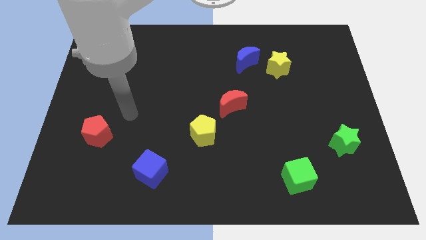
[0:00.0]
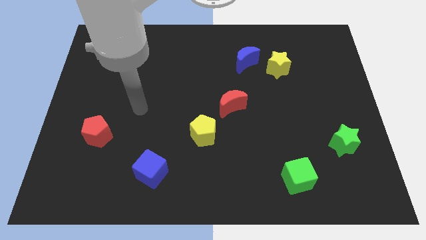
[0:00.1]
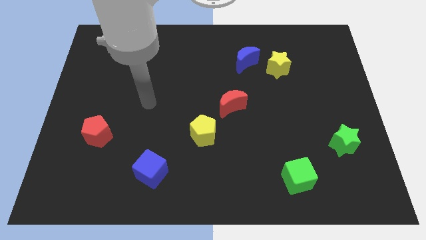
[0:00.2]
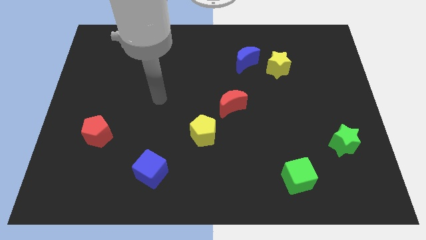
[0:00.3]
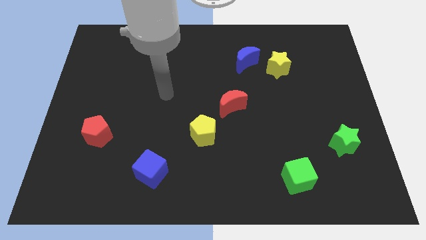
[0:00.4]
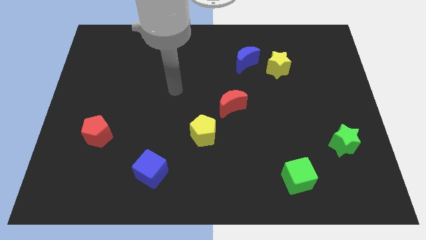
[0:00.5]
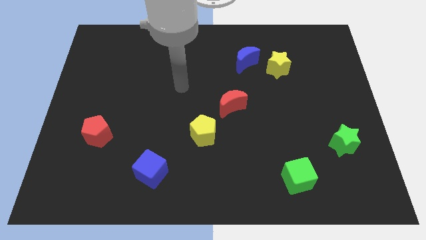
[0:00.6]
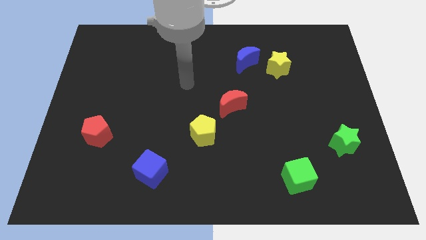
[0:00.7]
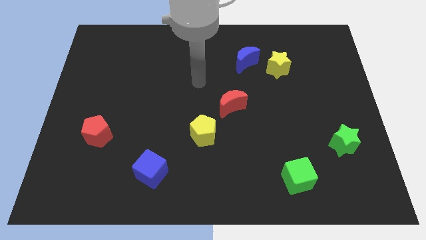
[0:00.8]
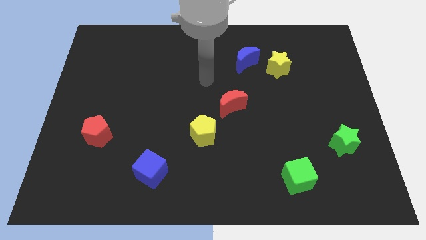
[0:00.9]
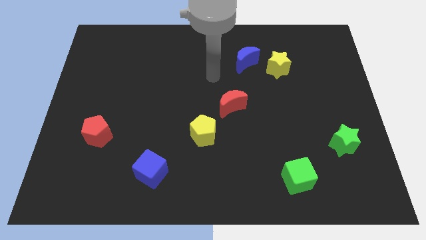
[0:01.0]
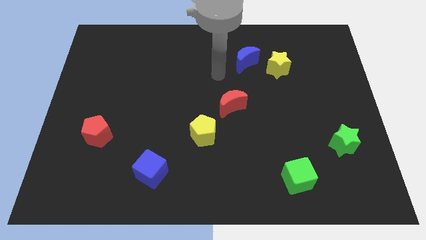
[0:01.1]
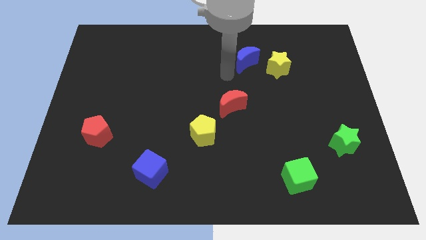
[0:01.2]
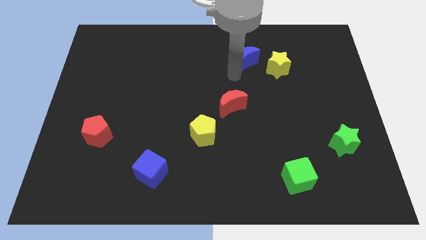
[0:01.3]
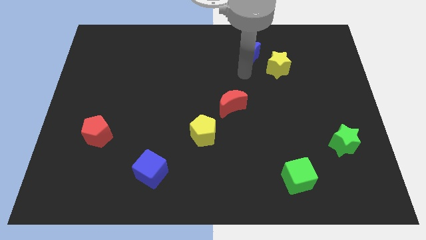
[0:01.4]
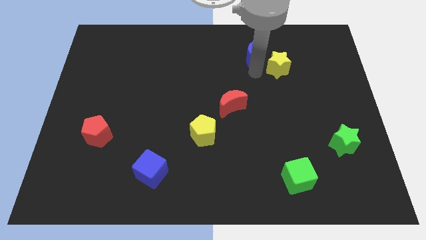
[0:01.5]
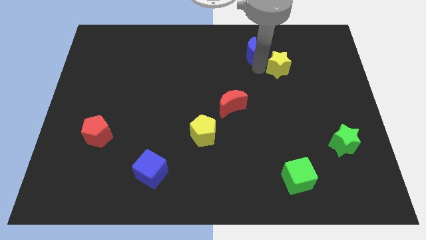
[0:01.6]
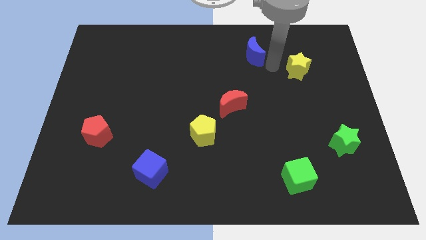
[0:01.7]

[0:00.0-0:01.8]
pull the blue moon apart from the yellow star

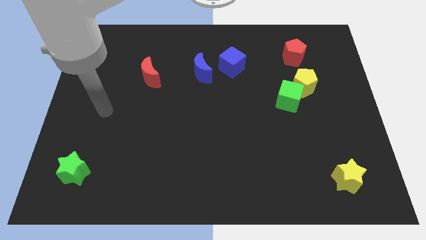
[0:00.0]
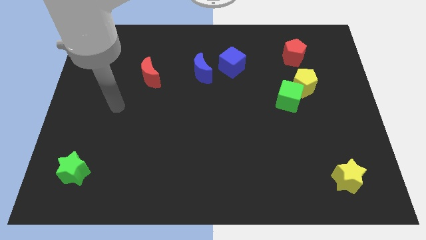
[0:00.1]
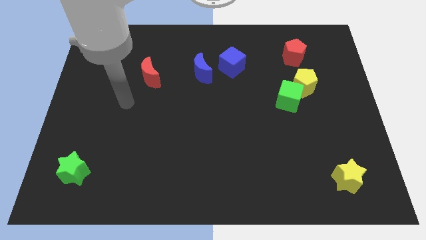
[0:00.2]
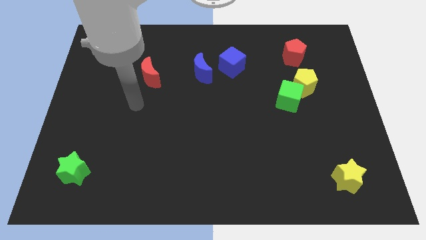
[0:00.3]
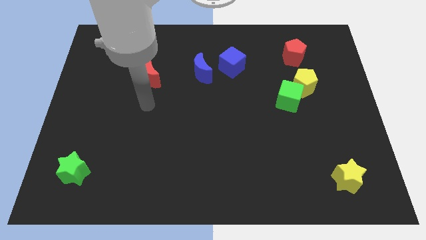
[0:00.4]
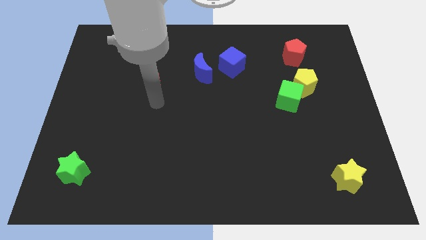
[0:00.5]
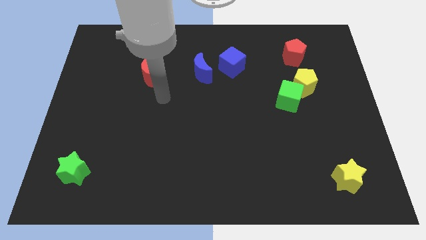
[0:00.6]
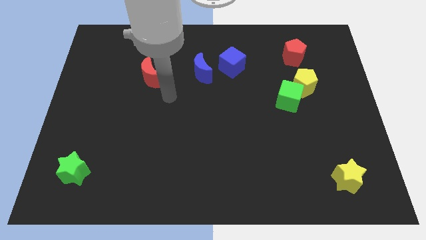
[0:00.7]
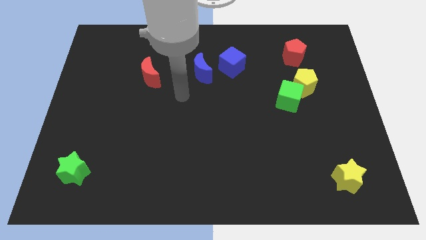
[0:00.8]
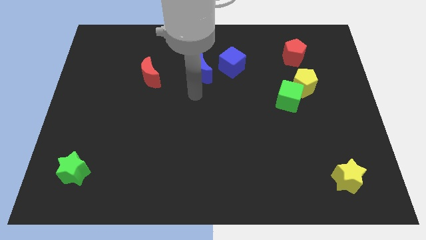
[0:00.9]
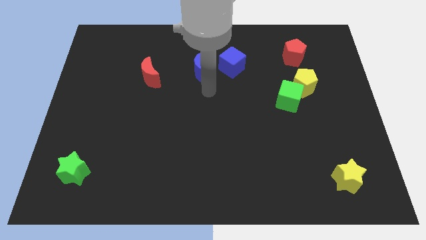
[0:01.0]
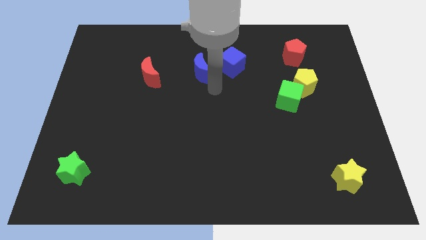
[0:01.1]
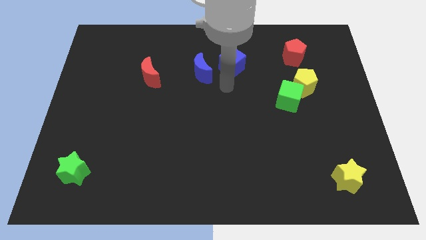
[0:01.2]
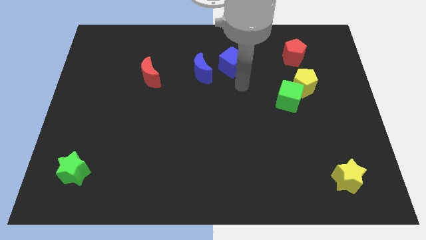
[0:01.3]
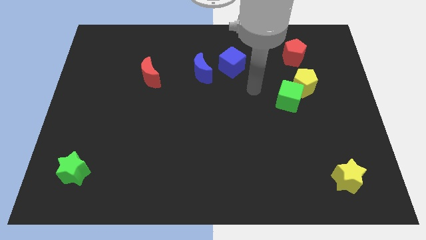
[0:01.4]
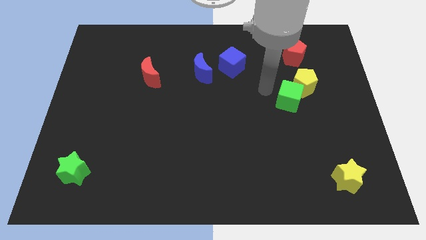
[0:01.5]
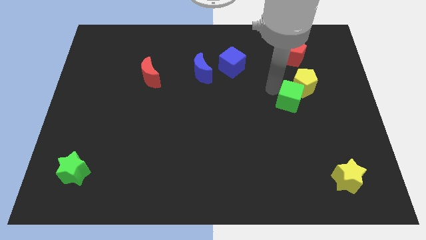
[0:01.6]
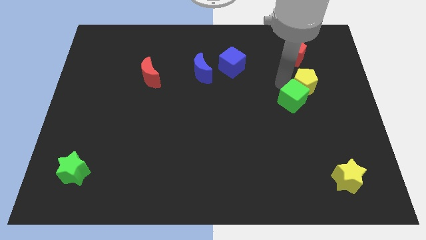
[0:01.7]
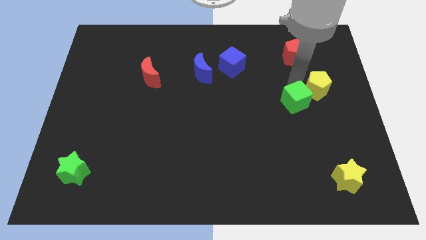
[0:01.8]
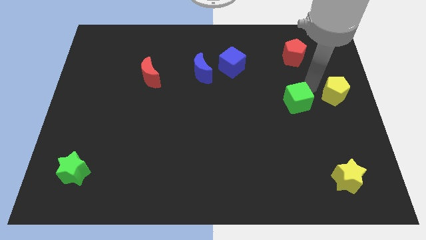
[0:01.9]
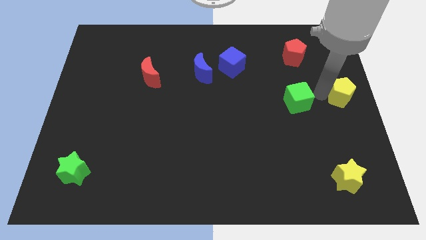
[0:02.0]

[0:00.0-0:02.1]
pull the green cube apart from the yellow pentagon

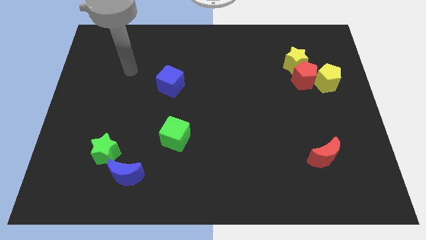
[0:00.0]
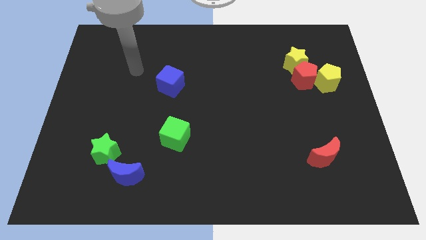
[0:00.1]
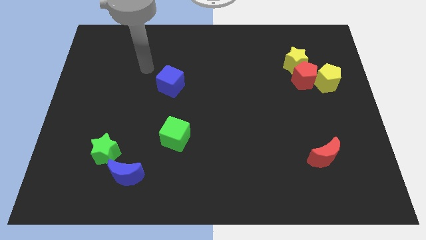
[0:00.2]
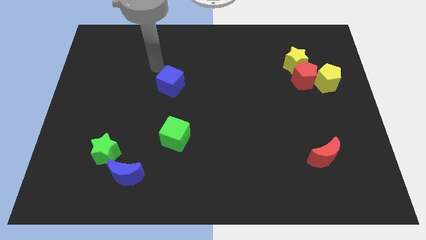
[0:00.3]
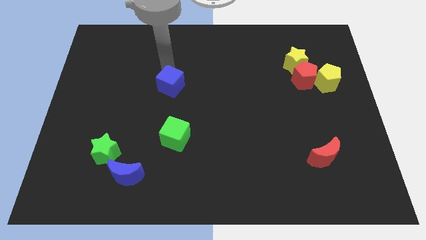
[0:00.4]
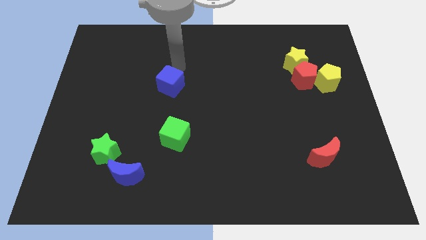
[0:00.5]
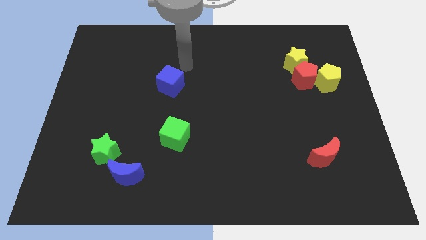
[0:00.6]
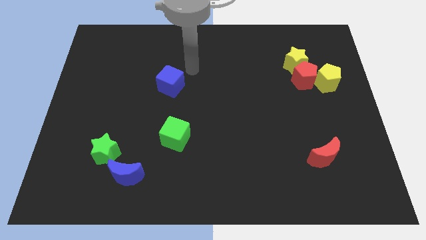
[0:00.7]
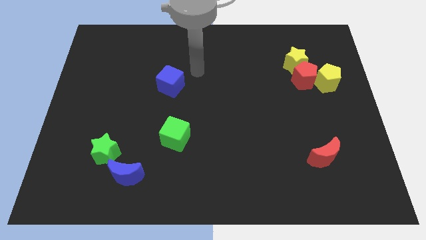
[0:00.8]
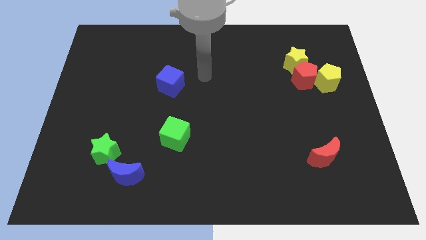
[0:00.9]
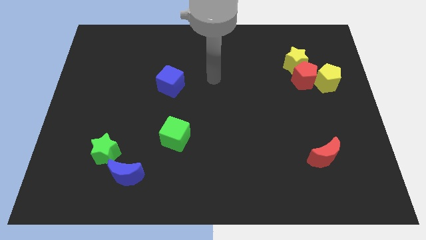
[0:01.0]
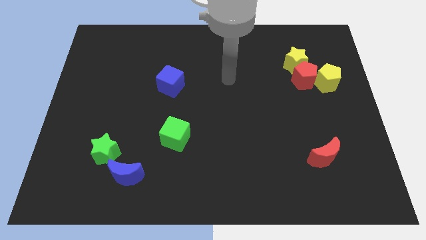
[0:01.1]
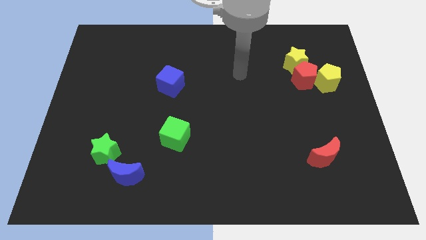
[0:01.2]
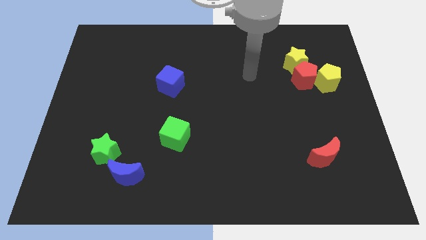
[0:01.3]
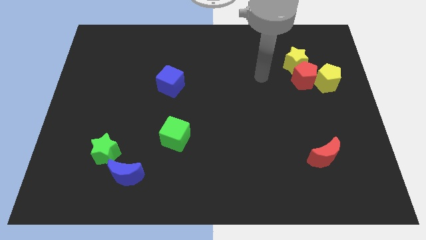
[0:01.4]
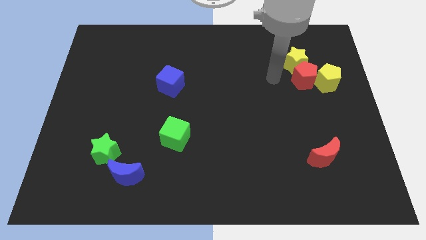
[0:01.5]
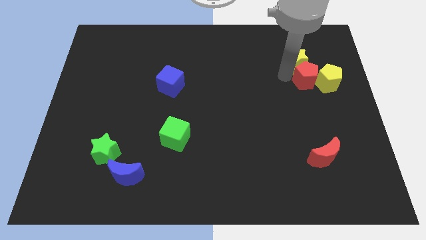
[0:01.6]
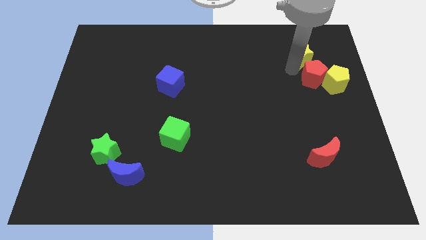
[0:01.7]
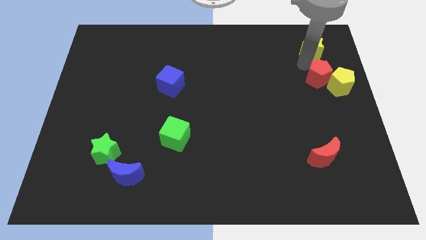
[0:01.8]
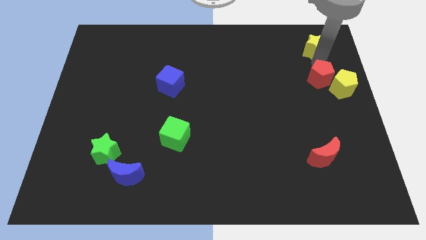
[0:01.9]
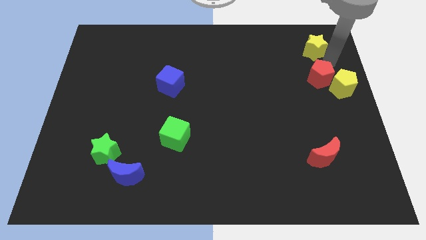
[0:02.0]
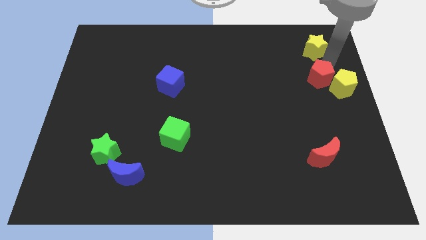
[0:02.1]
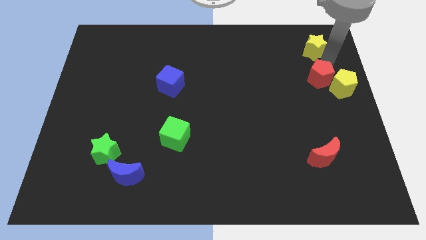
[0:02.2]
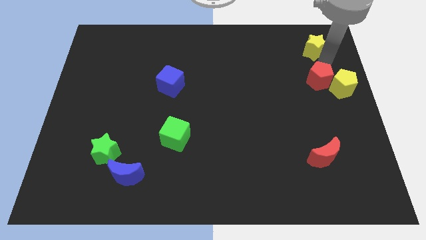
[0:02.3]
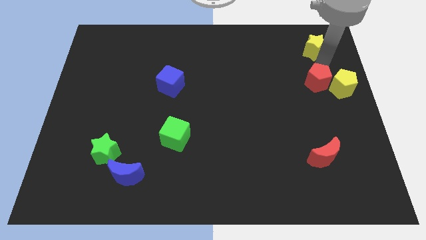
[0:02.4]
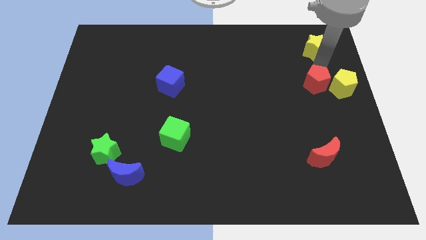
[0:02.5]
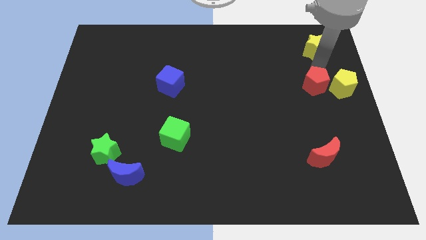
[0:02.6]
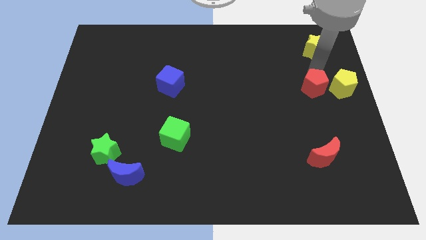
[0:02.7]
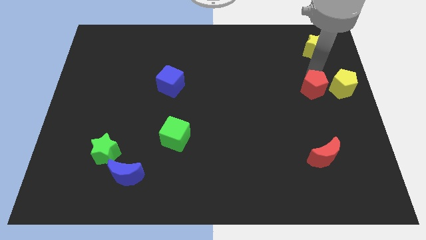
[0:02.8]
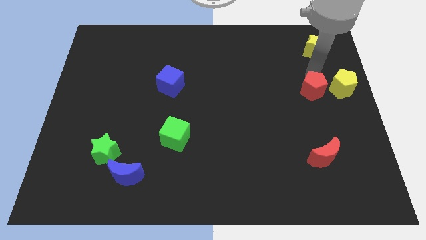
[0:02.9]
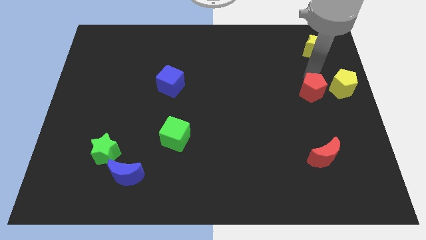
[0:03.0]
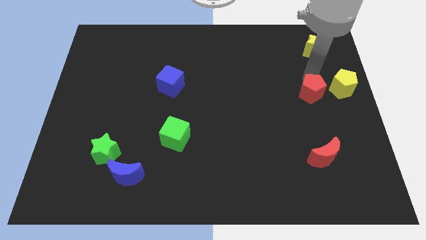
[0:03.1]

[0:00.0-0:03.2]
move the red pentagon away from the yellow pentagon and yellow star

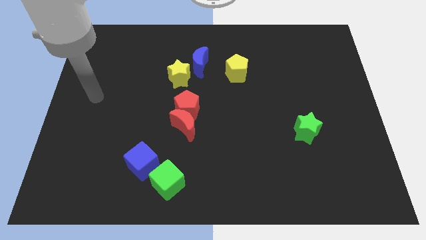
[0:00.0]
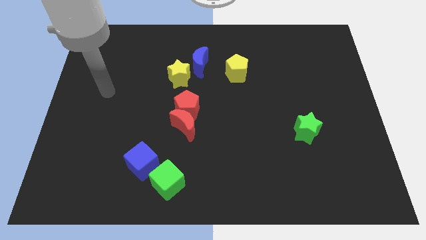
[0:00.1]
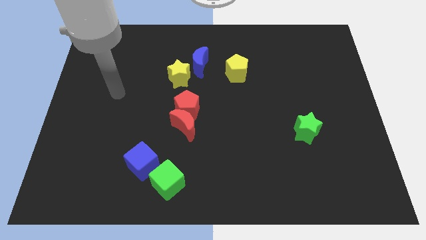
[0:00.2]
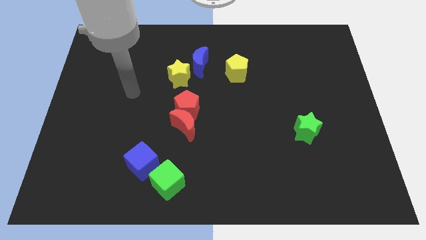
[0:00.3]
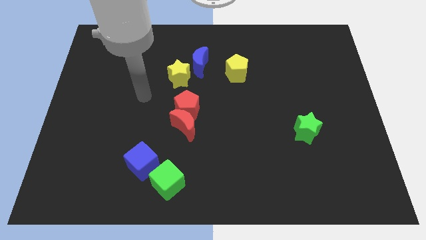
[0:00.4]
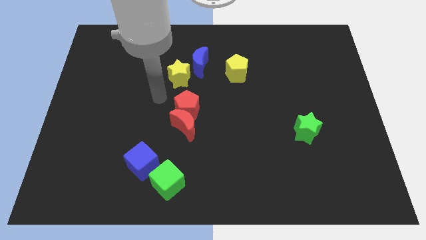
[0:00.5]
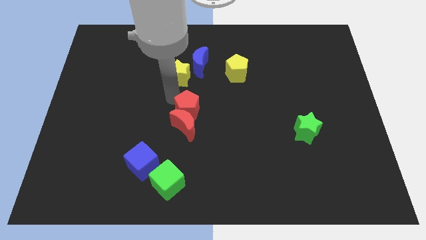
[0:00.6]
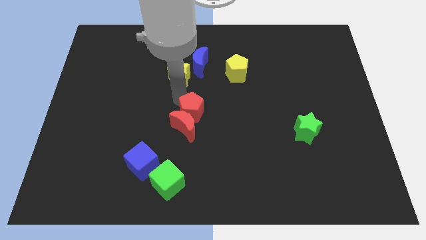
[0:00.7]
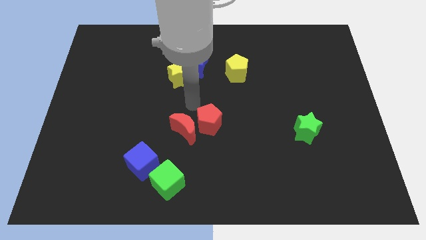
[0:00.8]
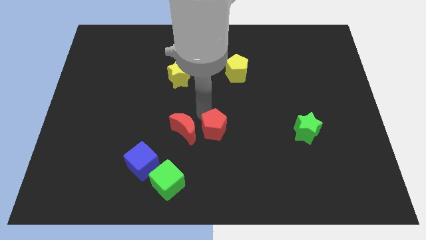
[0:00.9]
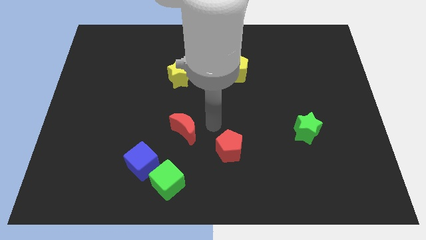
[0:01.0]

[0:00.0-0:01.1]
separate the red moon from the red pentagon

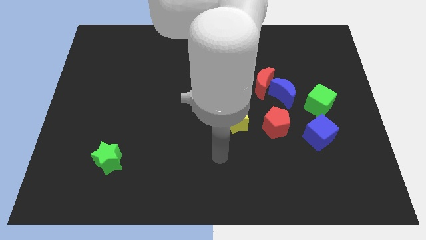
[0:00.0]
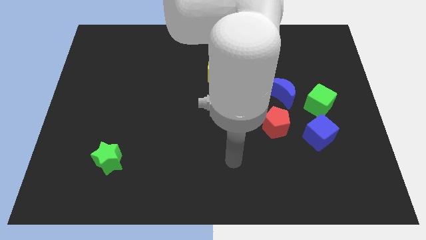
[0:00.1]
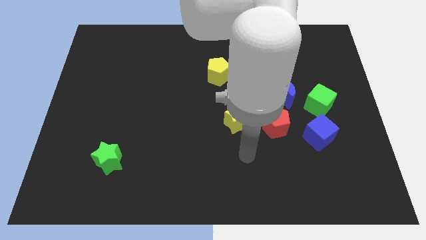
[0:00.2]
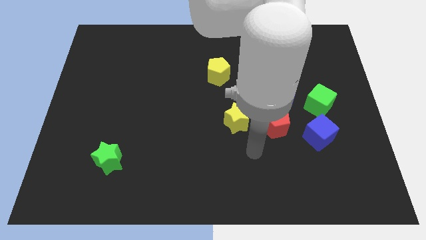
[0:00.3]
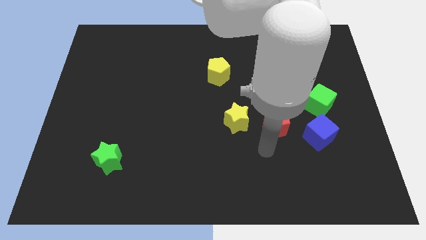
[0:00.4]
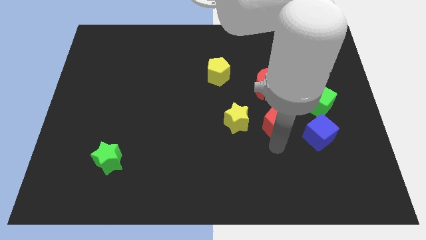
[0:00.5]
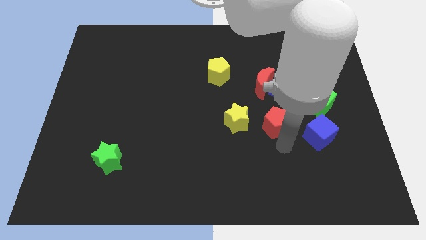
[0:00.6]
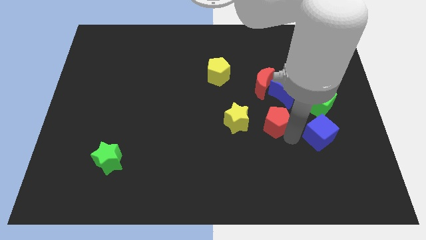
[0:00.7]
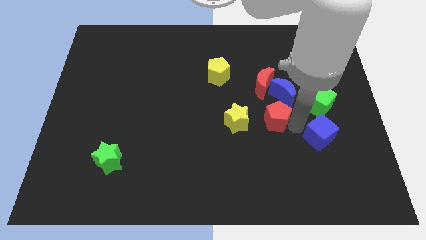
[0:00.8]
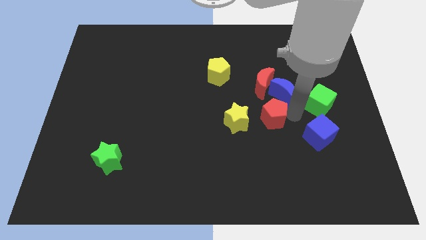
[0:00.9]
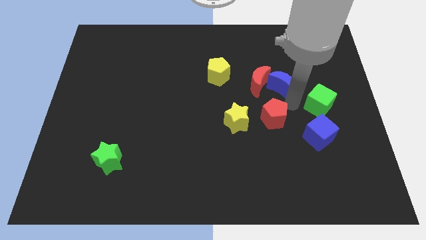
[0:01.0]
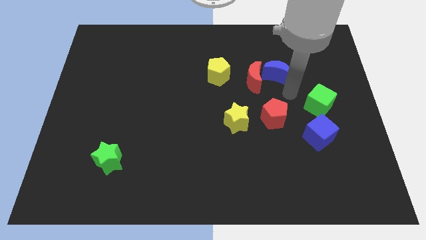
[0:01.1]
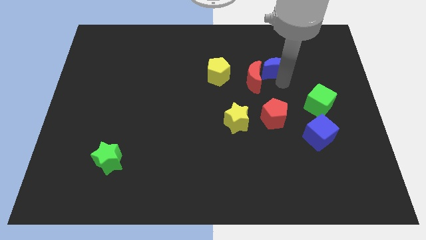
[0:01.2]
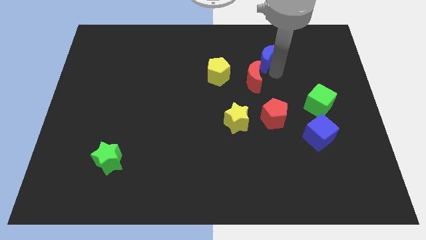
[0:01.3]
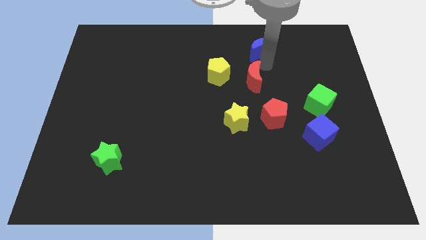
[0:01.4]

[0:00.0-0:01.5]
move the red moon away from the blue moon
